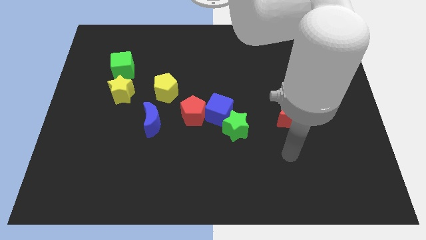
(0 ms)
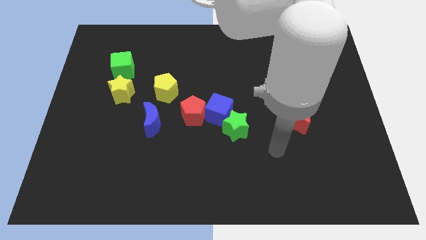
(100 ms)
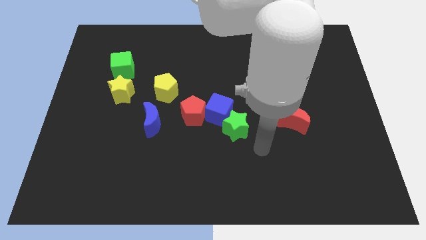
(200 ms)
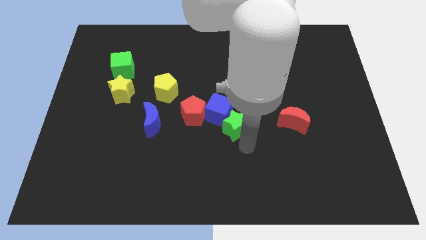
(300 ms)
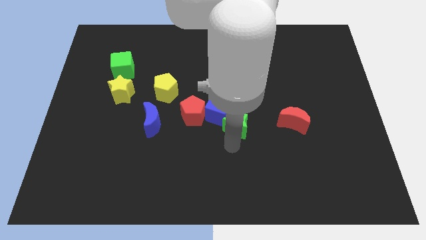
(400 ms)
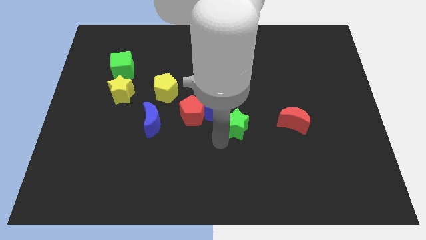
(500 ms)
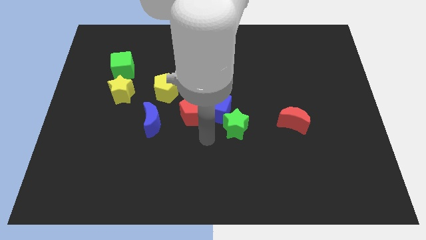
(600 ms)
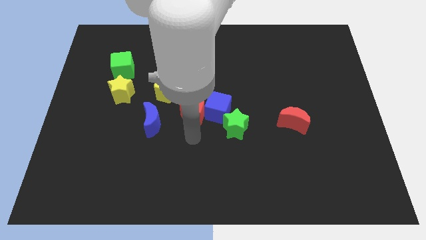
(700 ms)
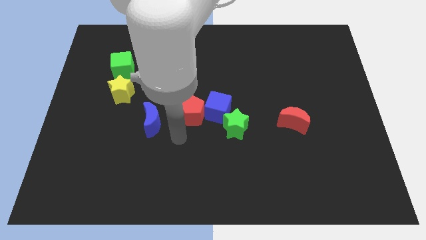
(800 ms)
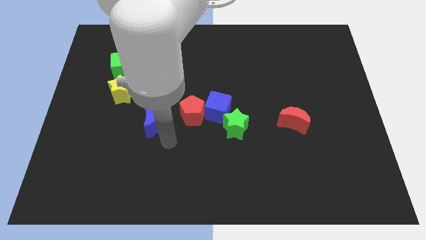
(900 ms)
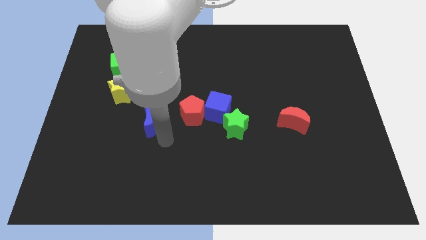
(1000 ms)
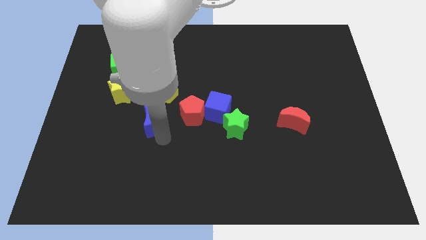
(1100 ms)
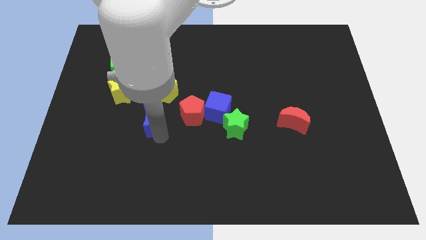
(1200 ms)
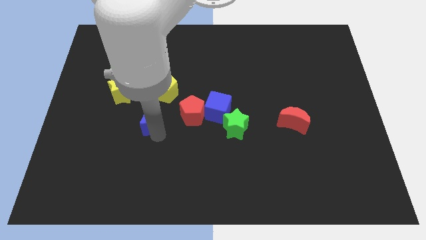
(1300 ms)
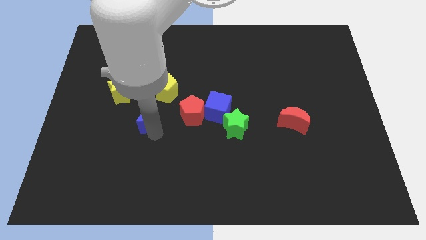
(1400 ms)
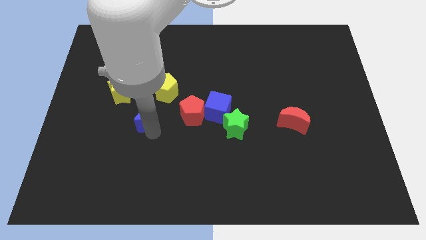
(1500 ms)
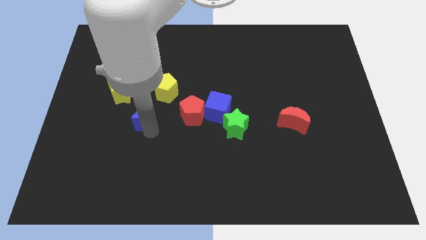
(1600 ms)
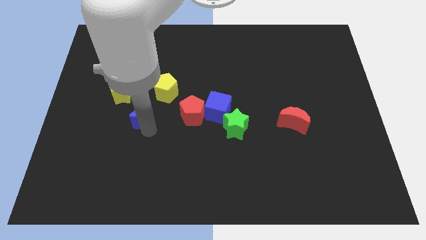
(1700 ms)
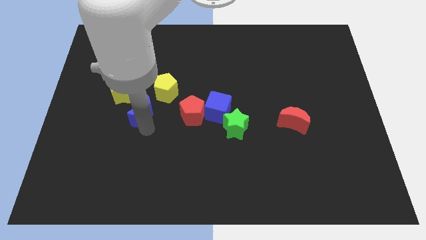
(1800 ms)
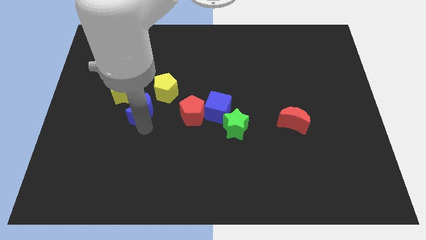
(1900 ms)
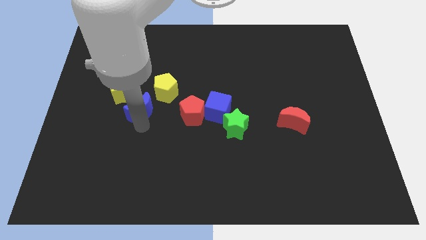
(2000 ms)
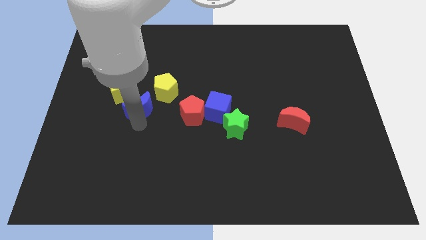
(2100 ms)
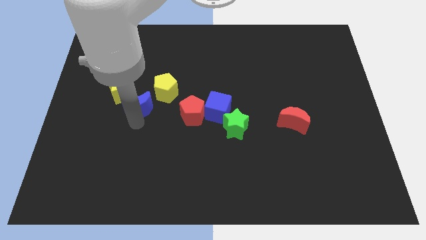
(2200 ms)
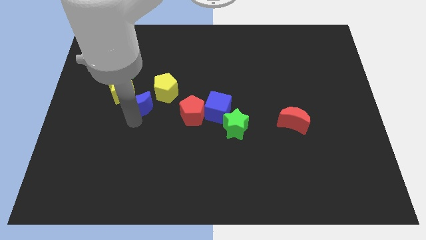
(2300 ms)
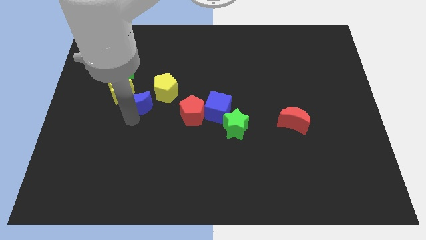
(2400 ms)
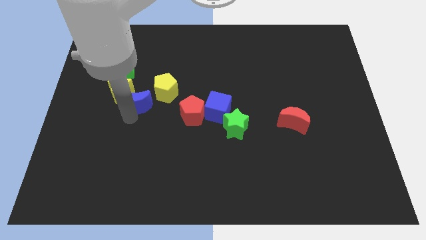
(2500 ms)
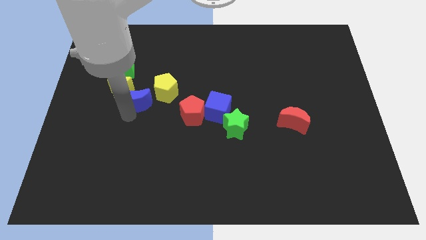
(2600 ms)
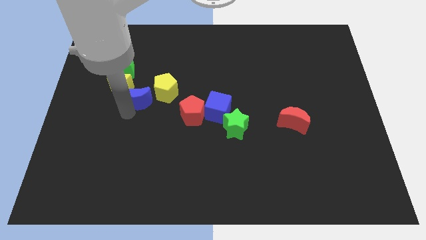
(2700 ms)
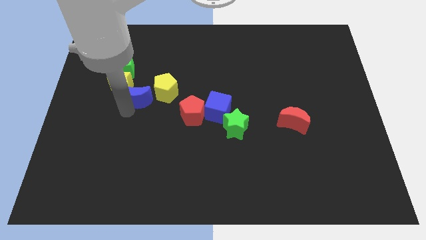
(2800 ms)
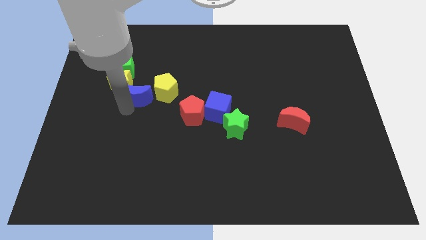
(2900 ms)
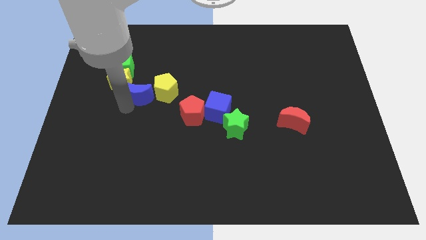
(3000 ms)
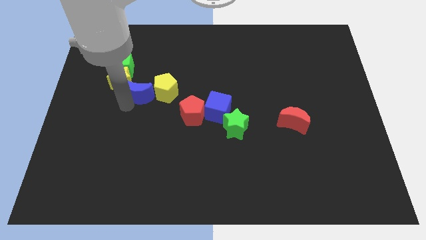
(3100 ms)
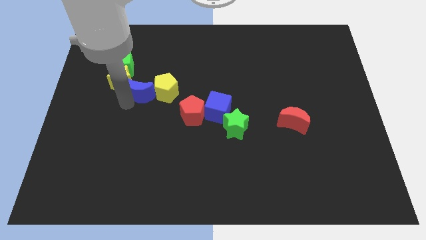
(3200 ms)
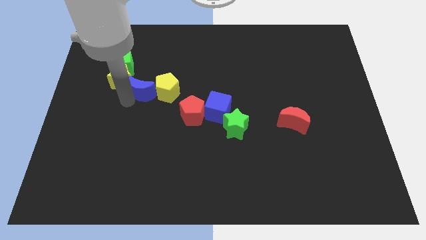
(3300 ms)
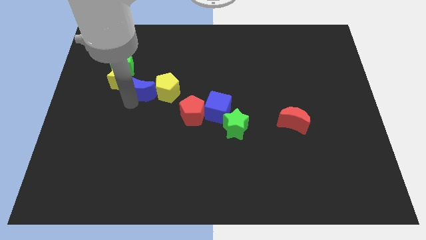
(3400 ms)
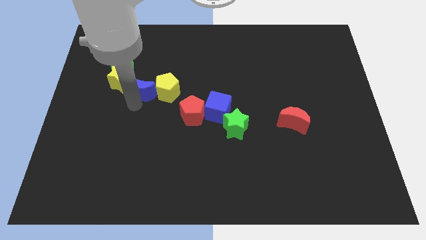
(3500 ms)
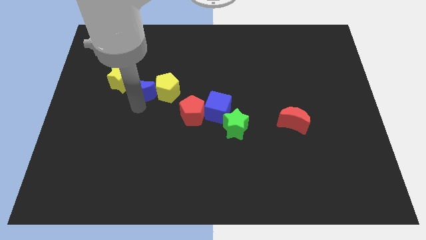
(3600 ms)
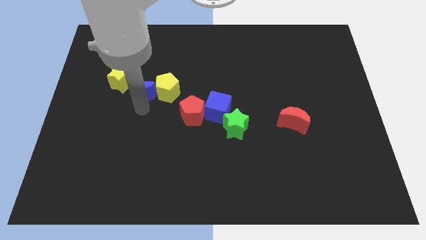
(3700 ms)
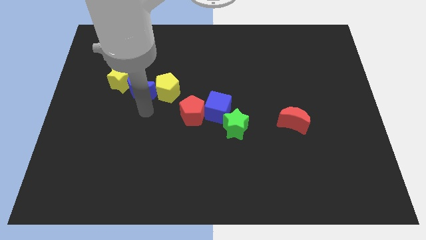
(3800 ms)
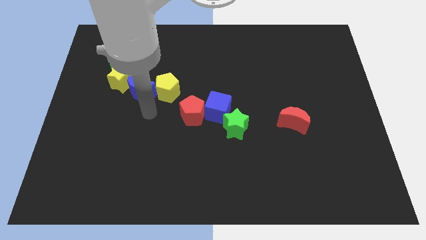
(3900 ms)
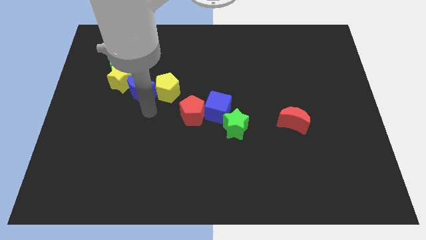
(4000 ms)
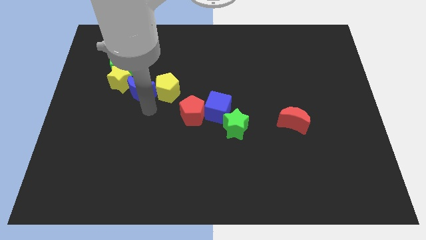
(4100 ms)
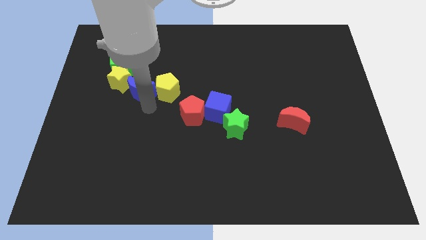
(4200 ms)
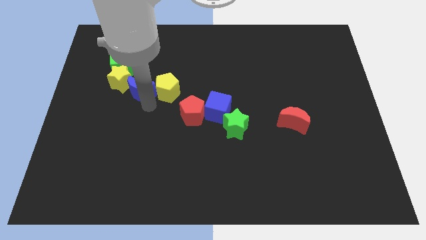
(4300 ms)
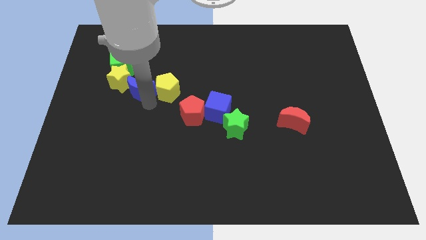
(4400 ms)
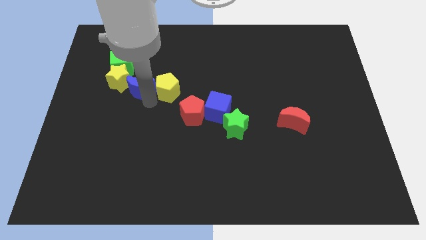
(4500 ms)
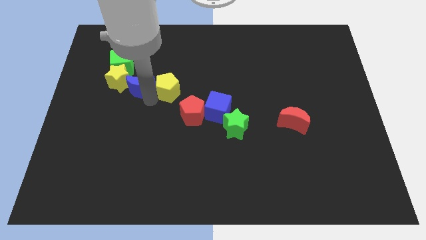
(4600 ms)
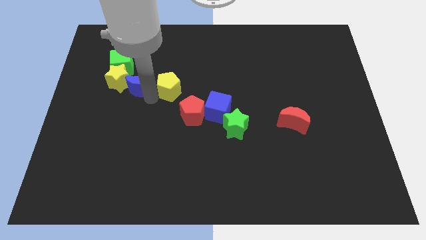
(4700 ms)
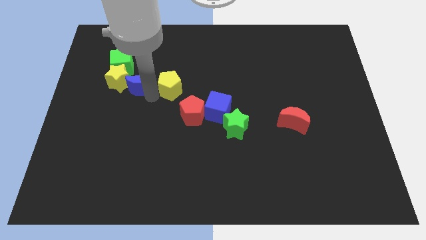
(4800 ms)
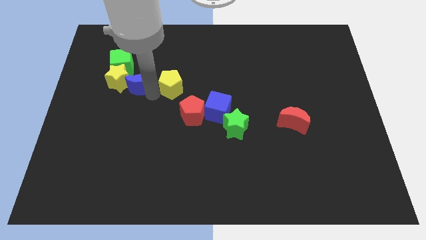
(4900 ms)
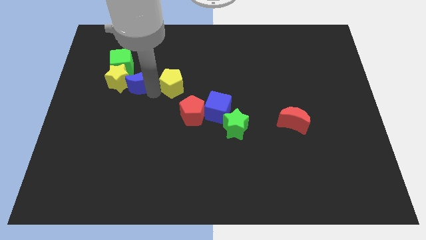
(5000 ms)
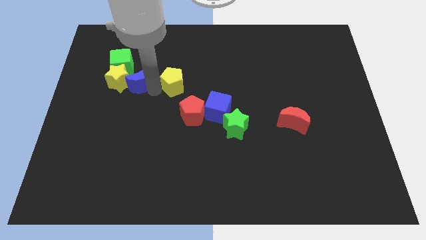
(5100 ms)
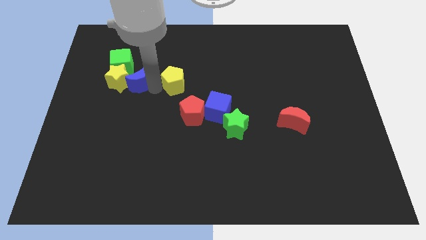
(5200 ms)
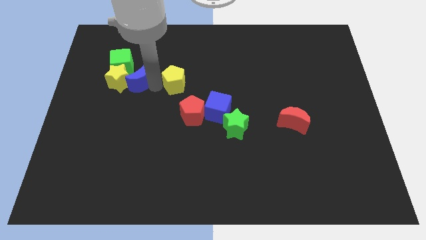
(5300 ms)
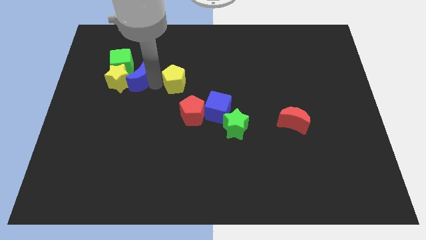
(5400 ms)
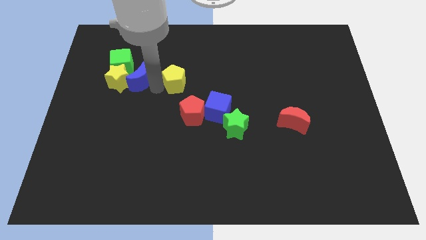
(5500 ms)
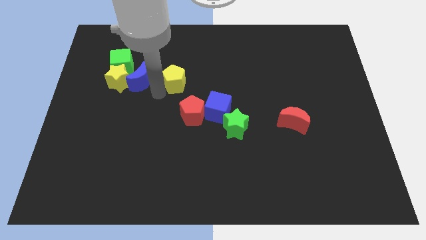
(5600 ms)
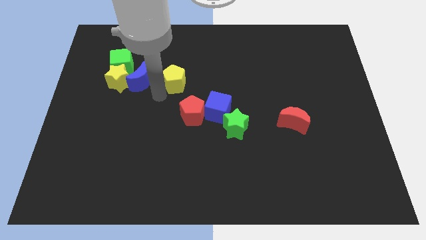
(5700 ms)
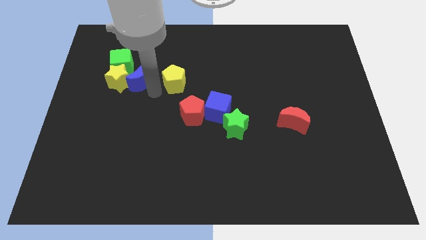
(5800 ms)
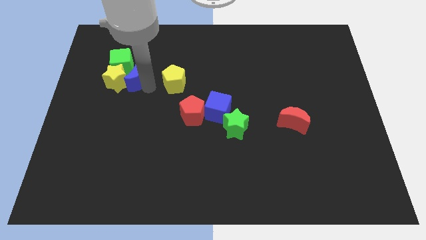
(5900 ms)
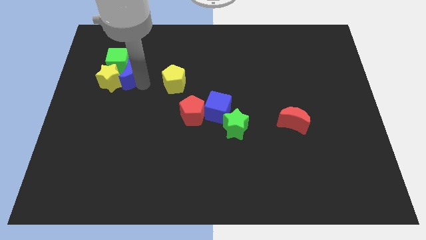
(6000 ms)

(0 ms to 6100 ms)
put the blue moon to the green cube

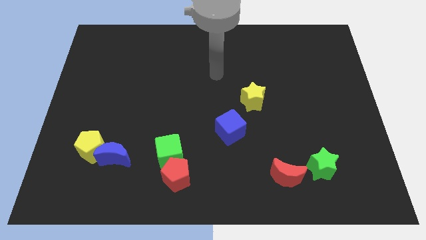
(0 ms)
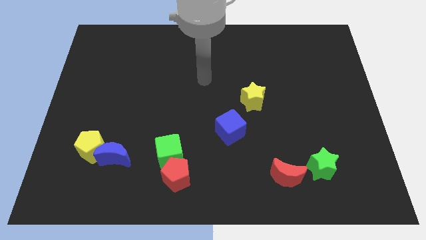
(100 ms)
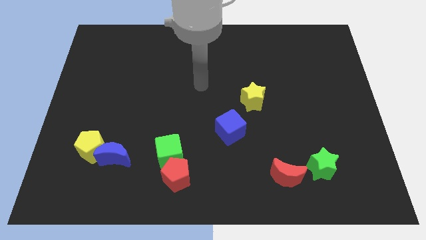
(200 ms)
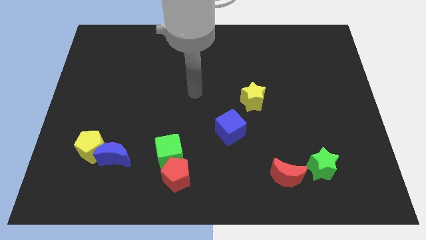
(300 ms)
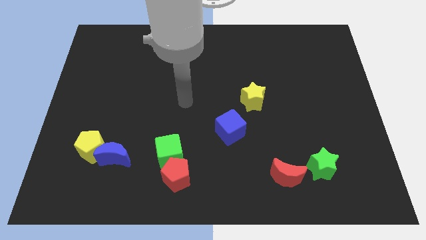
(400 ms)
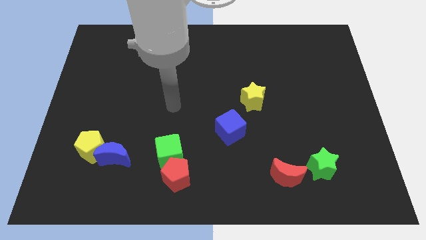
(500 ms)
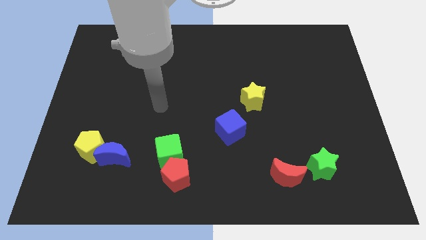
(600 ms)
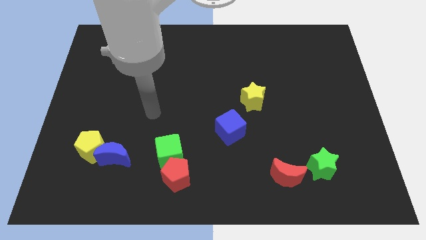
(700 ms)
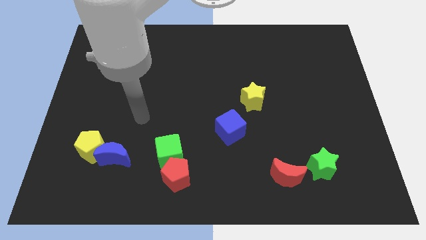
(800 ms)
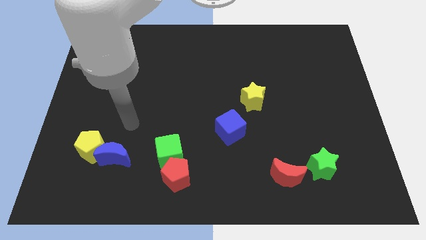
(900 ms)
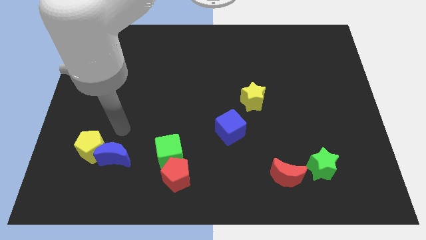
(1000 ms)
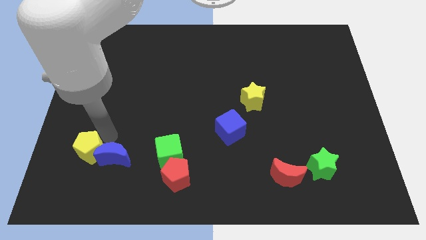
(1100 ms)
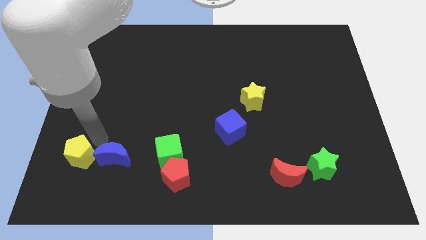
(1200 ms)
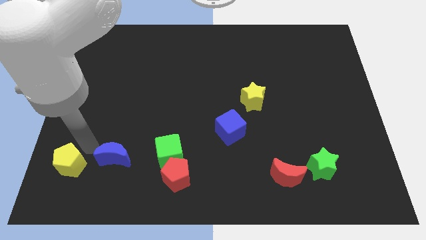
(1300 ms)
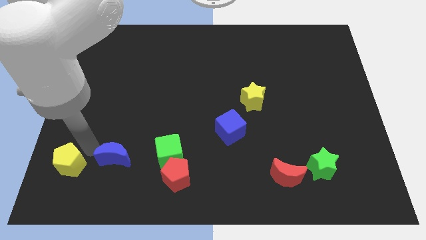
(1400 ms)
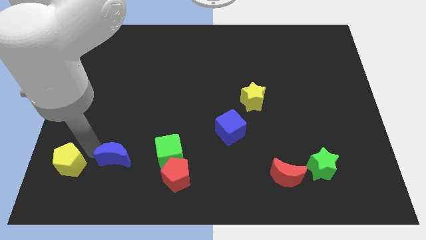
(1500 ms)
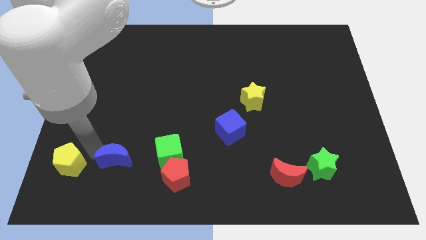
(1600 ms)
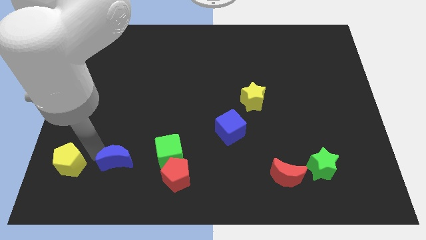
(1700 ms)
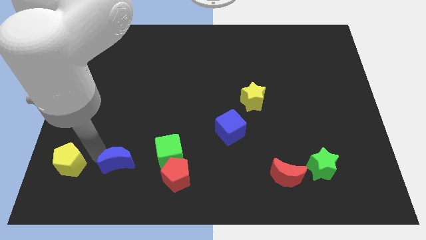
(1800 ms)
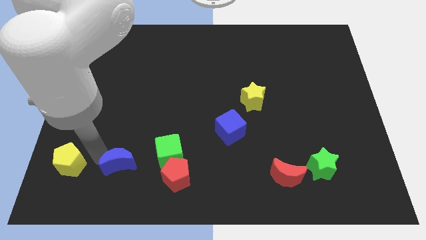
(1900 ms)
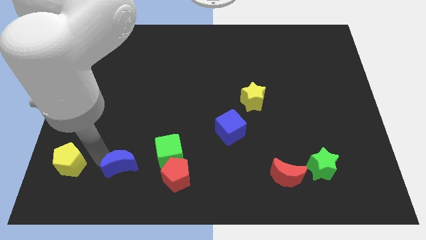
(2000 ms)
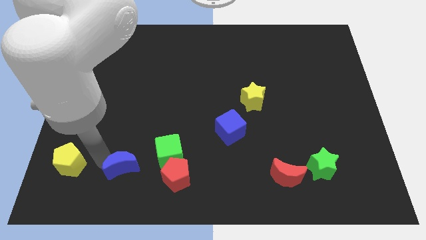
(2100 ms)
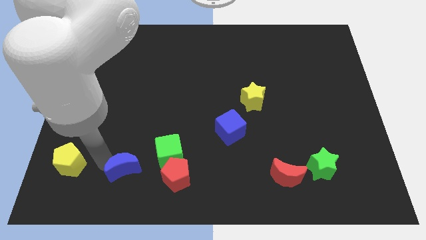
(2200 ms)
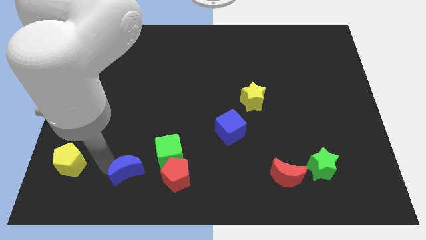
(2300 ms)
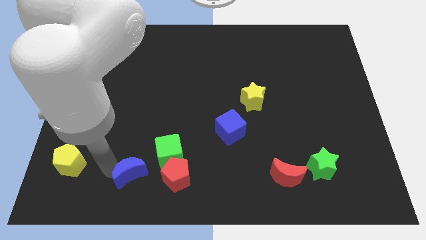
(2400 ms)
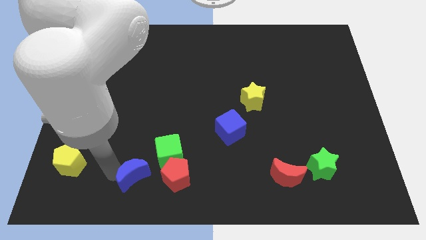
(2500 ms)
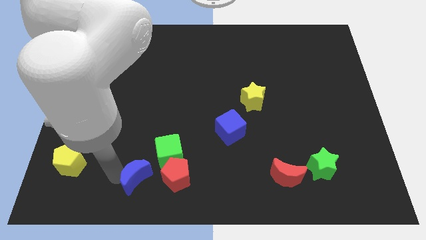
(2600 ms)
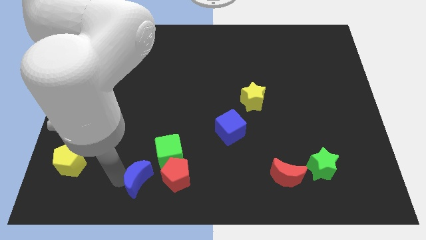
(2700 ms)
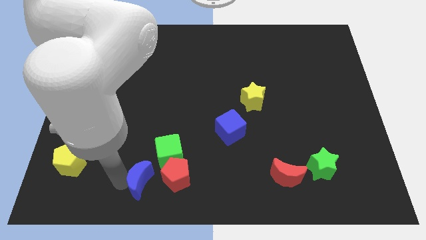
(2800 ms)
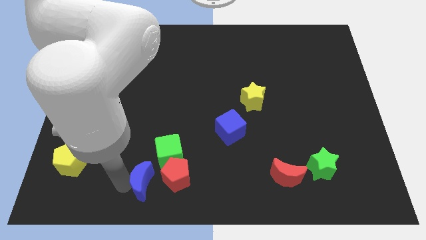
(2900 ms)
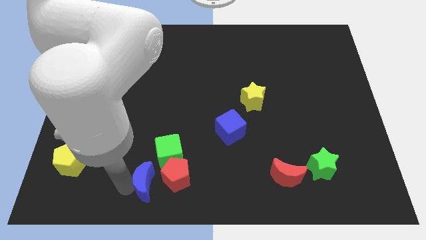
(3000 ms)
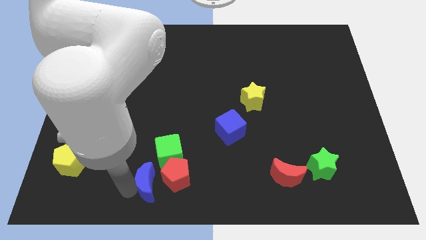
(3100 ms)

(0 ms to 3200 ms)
slide the blue moon towards the red pentagon
